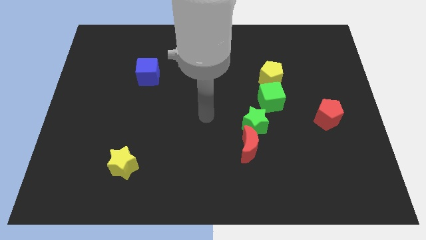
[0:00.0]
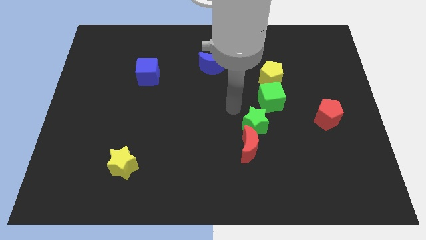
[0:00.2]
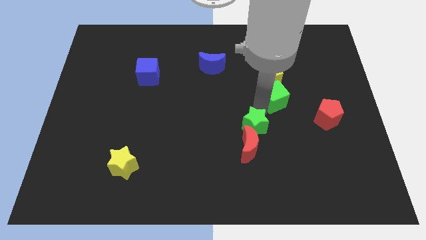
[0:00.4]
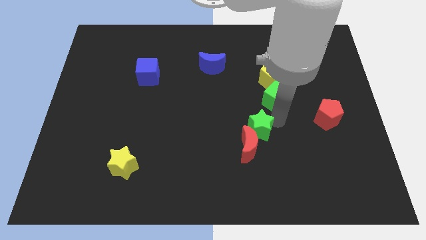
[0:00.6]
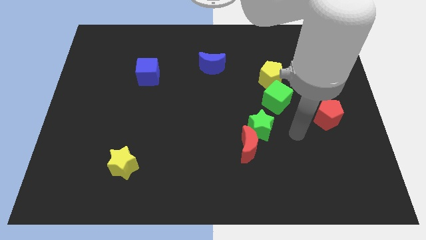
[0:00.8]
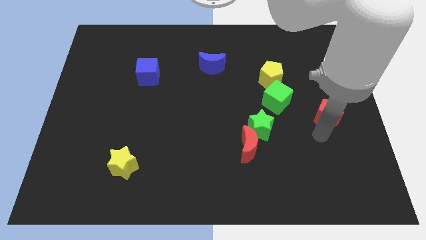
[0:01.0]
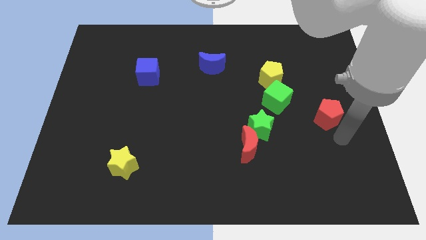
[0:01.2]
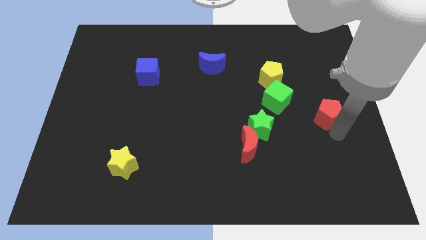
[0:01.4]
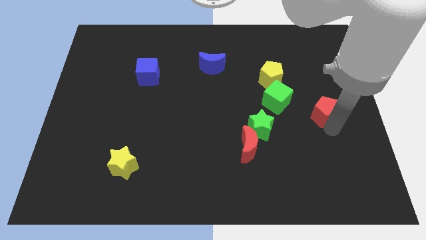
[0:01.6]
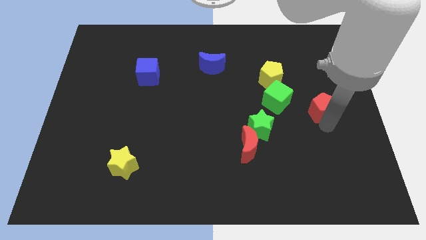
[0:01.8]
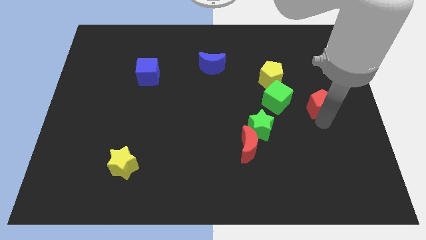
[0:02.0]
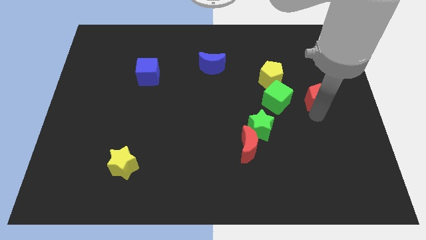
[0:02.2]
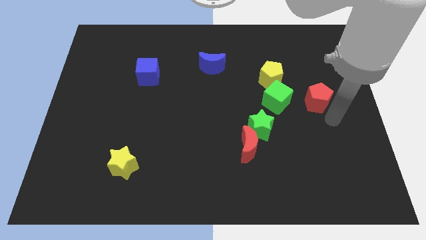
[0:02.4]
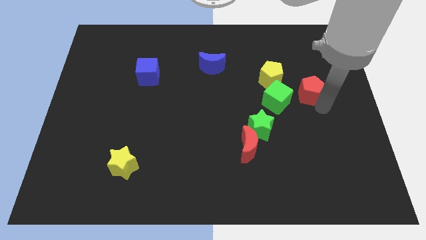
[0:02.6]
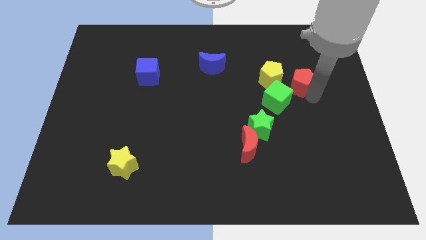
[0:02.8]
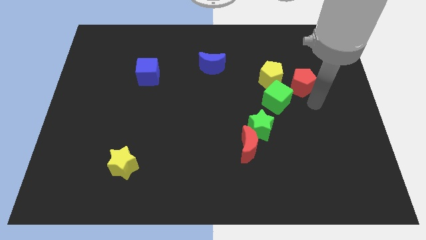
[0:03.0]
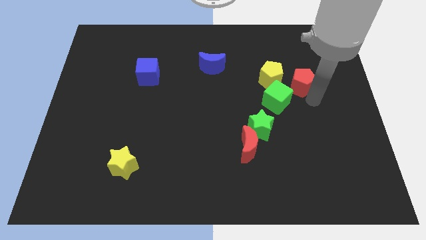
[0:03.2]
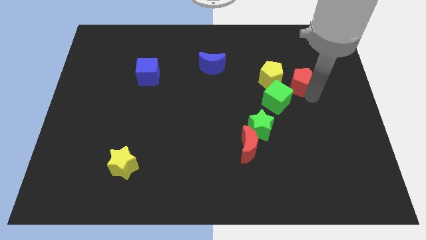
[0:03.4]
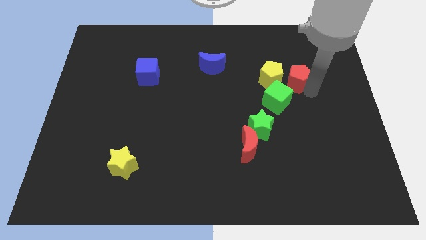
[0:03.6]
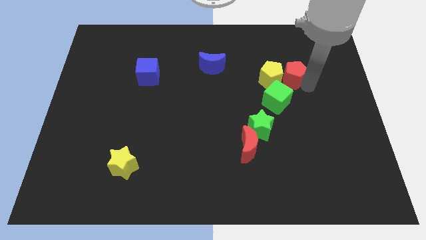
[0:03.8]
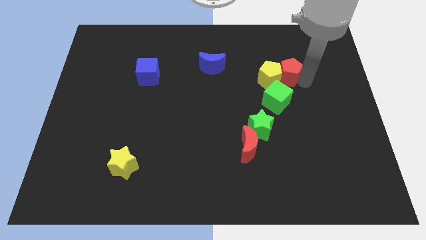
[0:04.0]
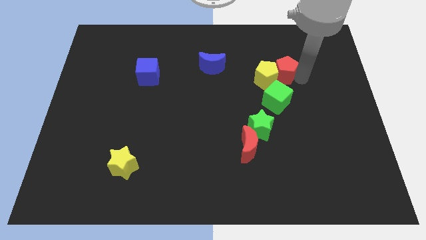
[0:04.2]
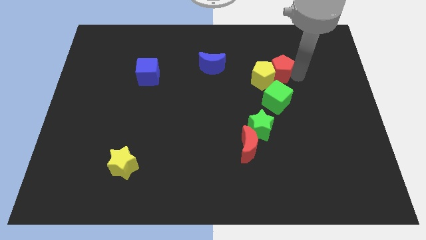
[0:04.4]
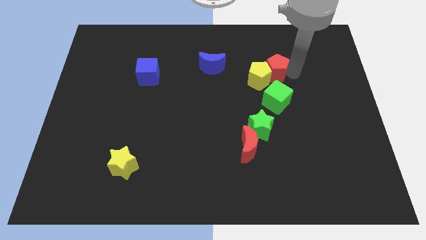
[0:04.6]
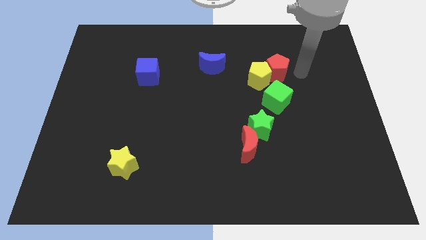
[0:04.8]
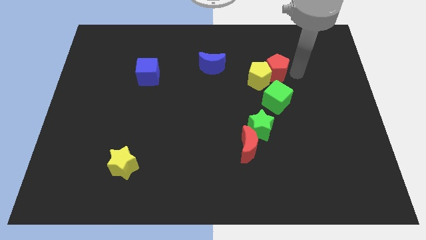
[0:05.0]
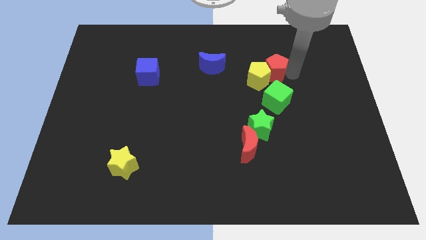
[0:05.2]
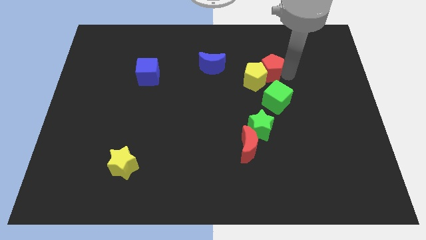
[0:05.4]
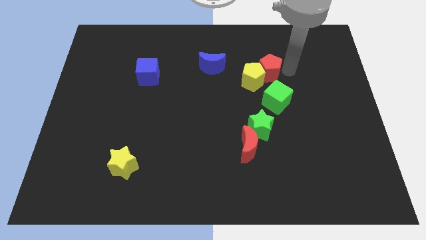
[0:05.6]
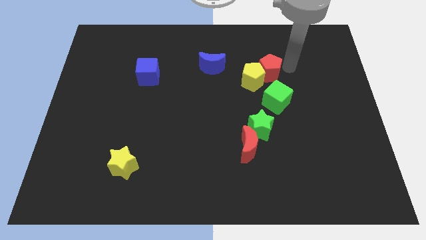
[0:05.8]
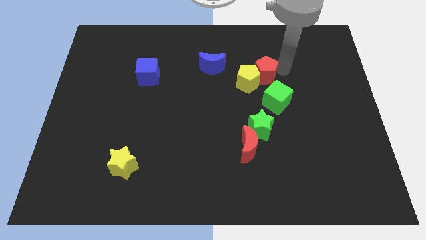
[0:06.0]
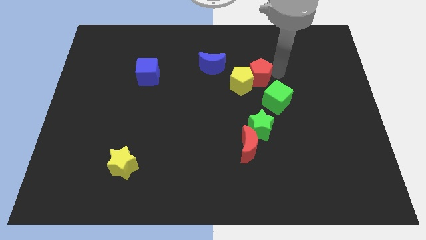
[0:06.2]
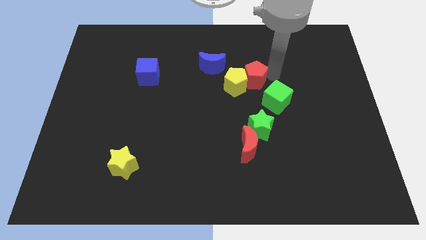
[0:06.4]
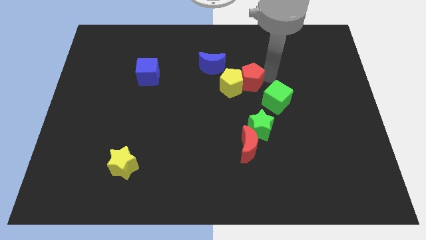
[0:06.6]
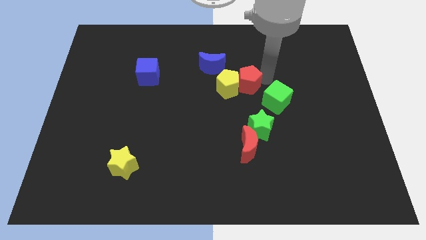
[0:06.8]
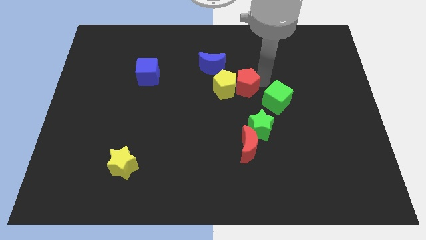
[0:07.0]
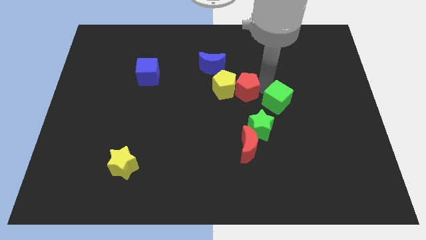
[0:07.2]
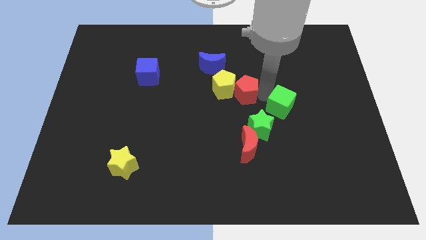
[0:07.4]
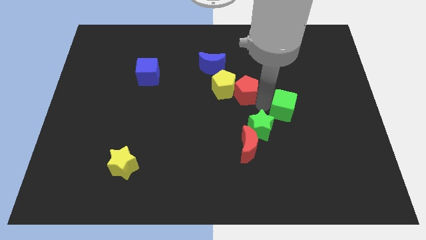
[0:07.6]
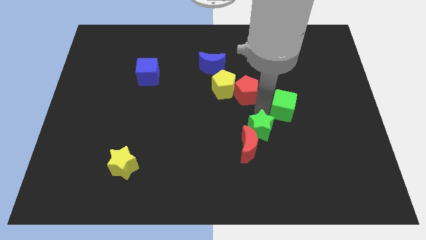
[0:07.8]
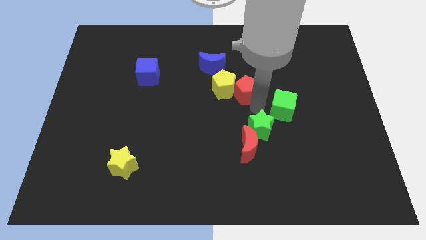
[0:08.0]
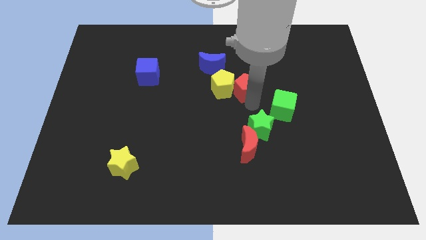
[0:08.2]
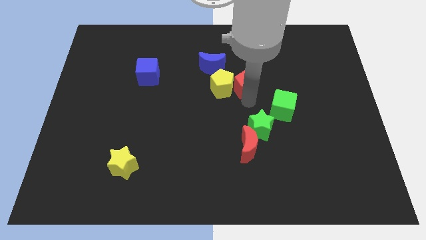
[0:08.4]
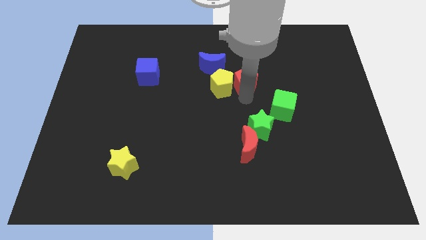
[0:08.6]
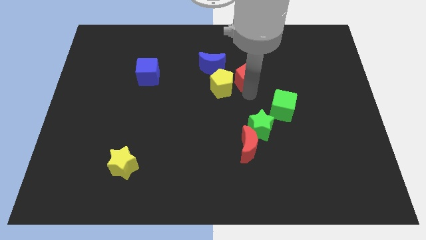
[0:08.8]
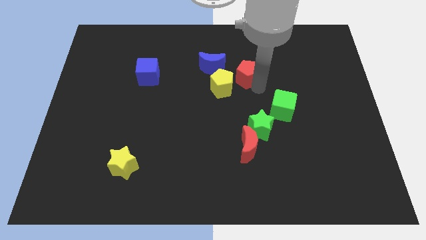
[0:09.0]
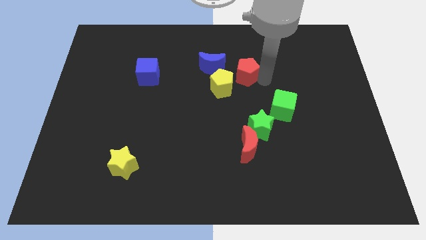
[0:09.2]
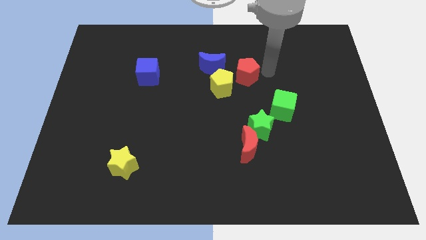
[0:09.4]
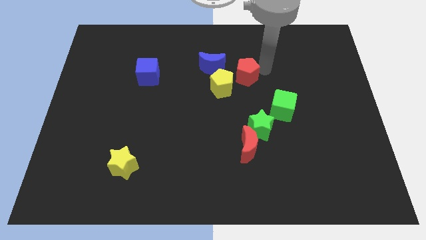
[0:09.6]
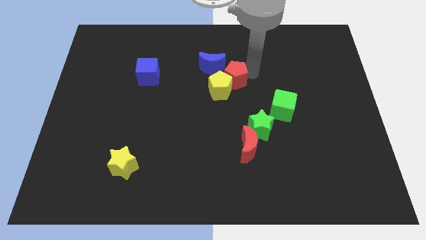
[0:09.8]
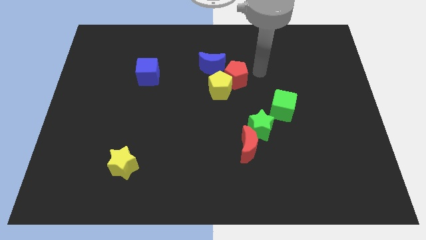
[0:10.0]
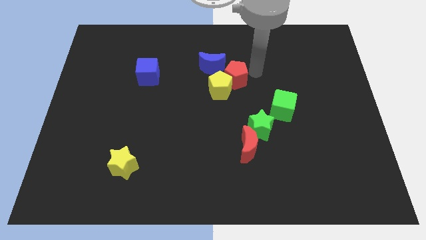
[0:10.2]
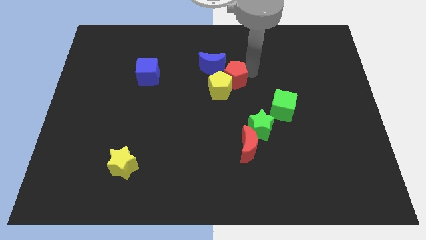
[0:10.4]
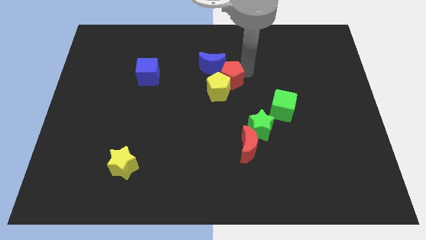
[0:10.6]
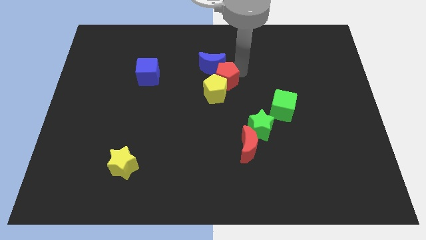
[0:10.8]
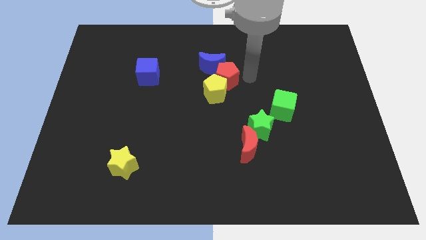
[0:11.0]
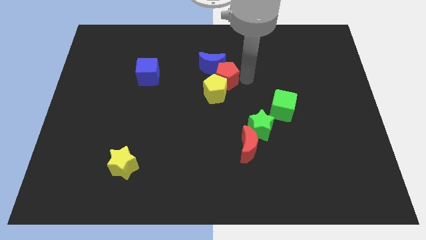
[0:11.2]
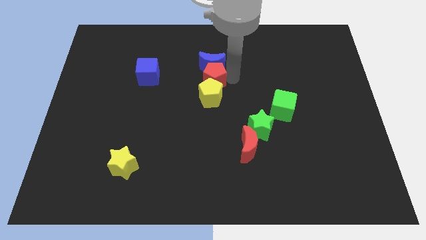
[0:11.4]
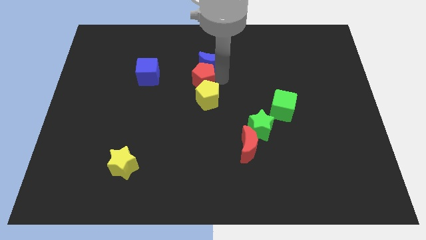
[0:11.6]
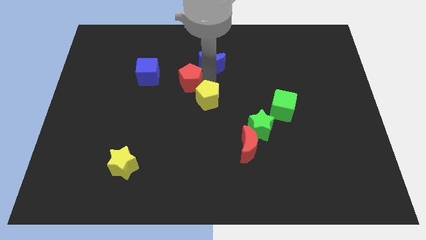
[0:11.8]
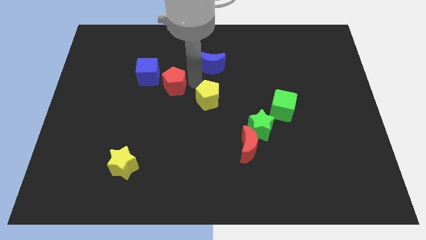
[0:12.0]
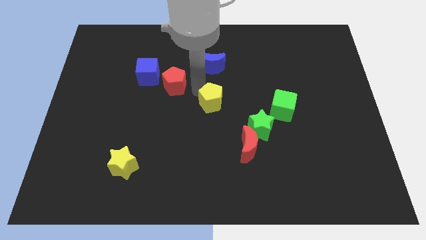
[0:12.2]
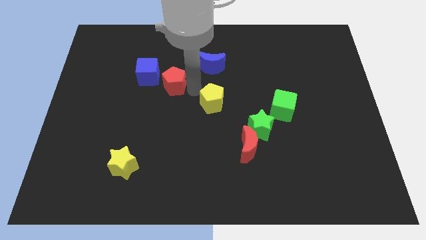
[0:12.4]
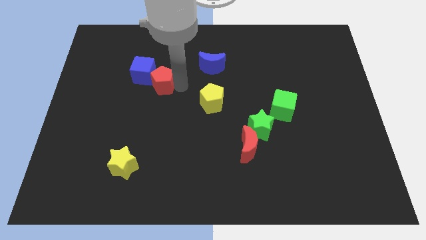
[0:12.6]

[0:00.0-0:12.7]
move the red pentagon towards the blue cube

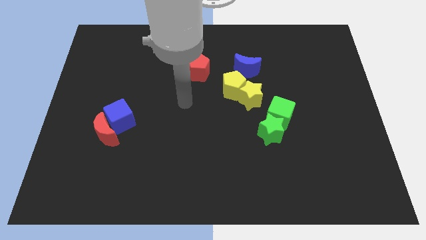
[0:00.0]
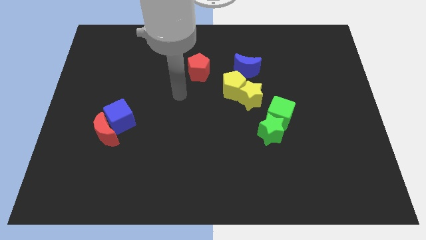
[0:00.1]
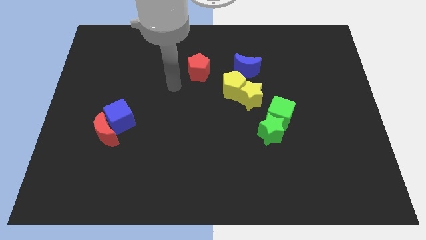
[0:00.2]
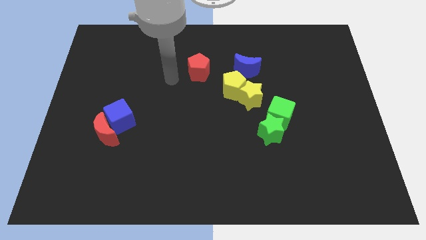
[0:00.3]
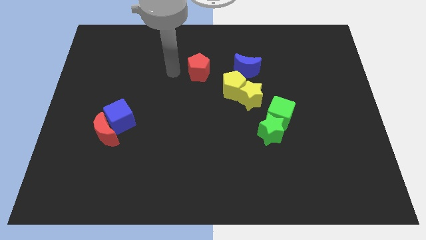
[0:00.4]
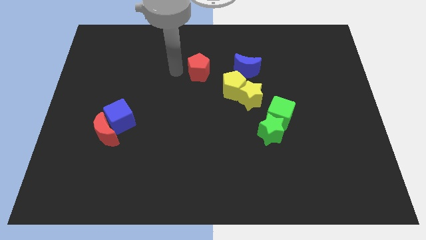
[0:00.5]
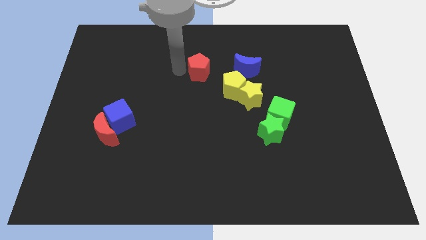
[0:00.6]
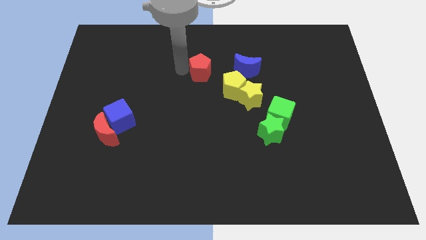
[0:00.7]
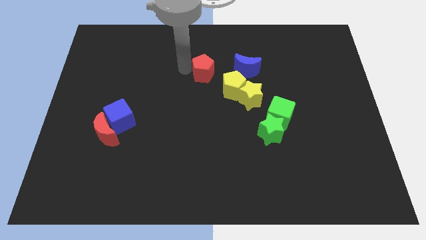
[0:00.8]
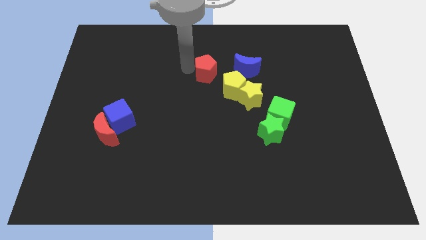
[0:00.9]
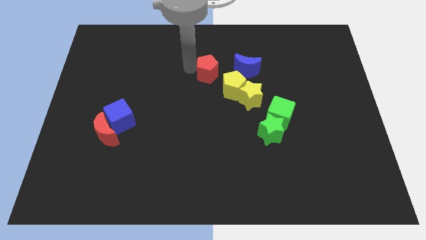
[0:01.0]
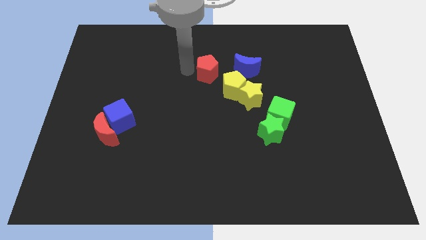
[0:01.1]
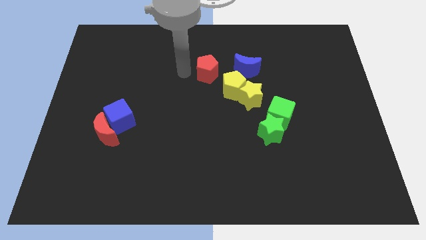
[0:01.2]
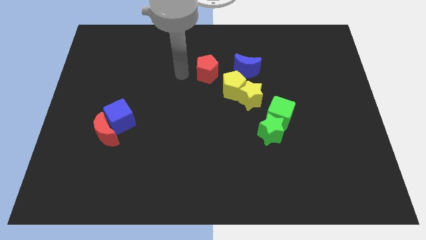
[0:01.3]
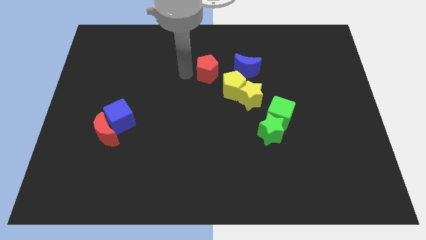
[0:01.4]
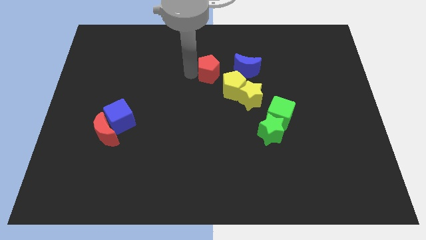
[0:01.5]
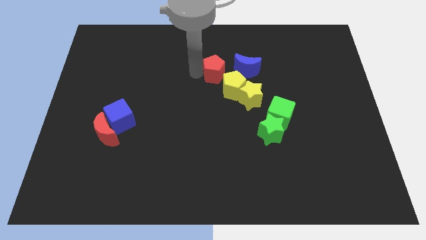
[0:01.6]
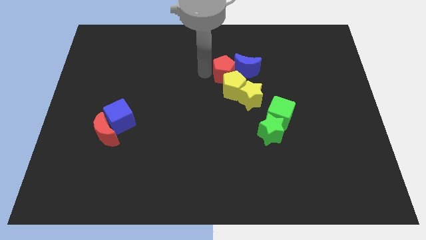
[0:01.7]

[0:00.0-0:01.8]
slide the red pentagon to the blue moon
